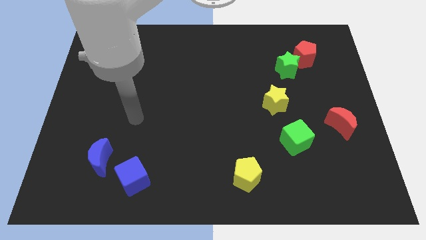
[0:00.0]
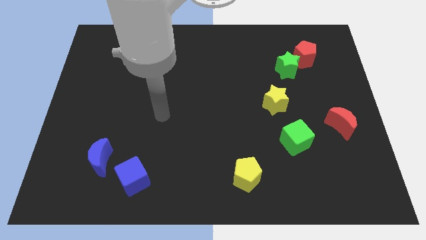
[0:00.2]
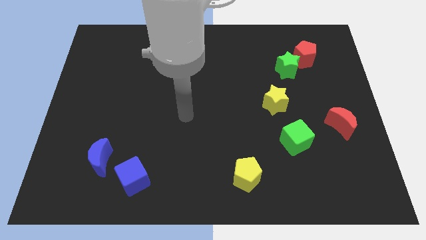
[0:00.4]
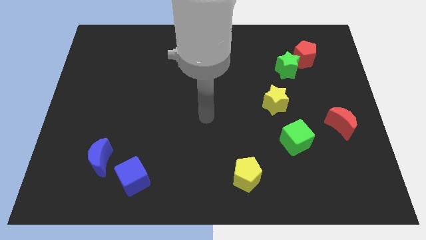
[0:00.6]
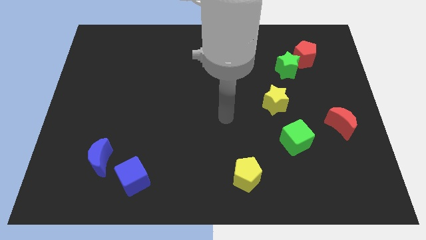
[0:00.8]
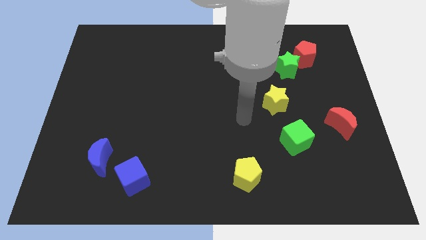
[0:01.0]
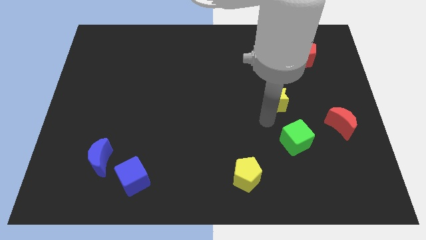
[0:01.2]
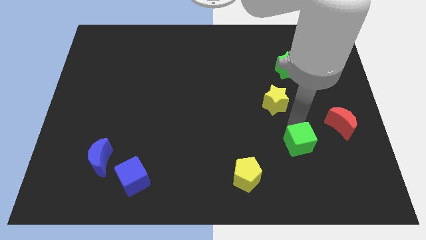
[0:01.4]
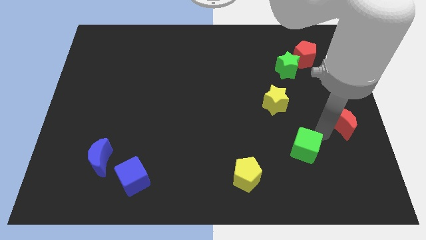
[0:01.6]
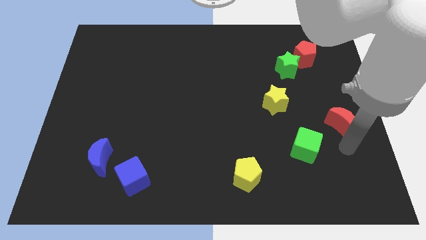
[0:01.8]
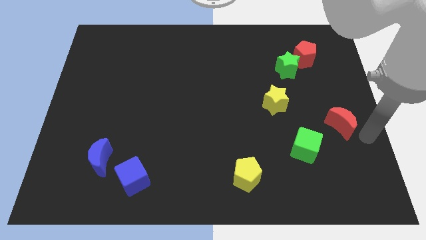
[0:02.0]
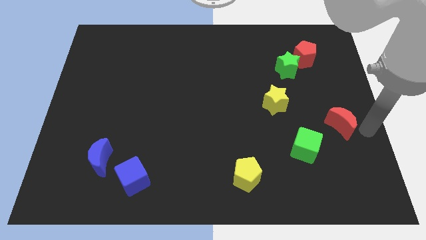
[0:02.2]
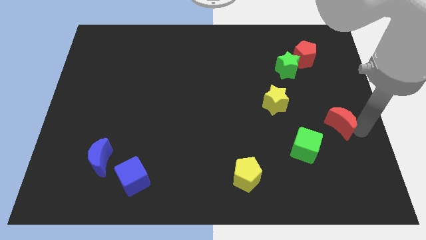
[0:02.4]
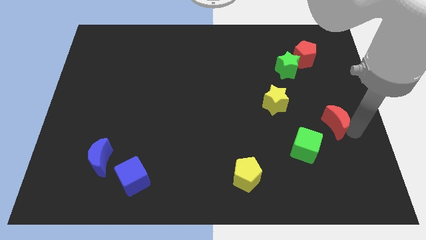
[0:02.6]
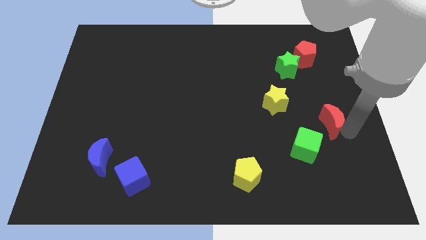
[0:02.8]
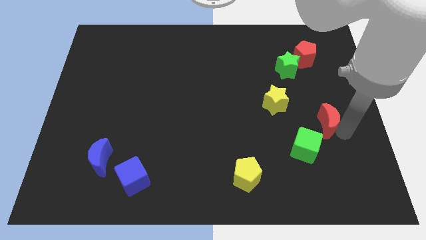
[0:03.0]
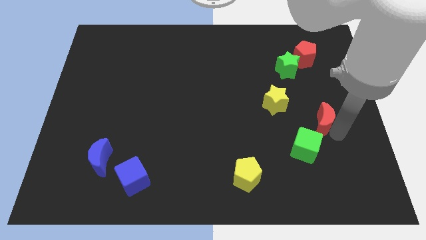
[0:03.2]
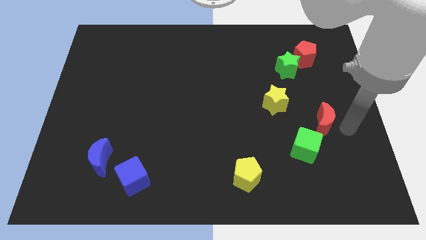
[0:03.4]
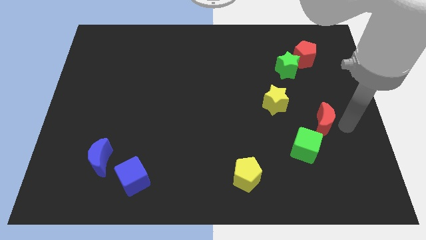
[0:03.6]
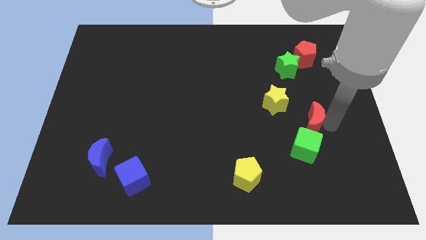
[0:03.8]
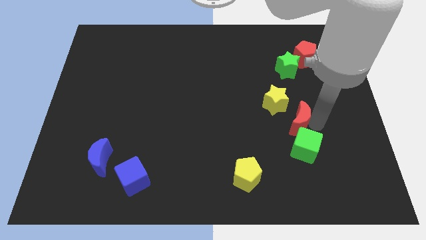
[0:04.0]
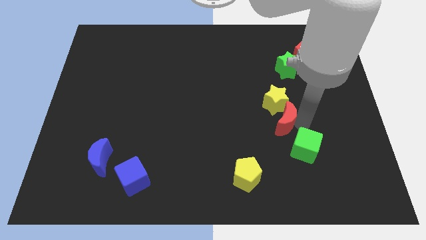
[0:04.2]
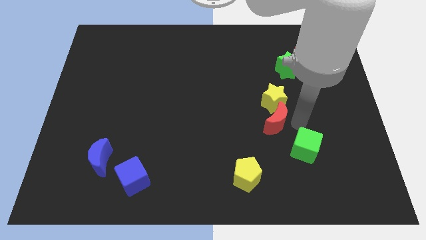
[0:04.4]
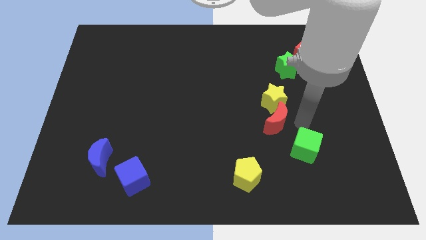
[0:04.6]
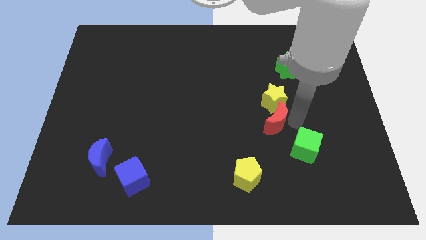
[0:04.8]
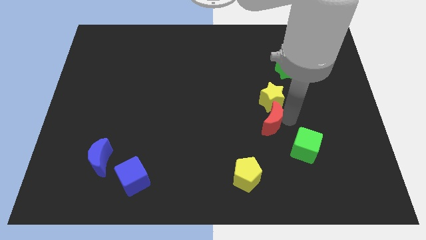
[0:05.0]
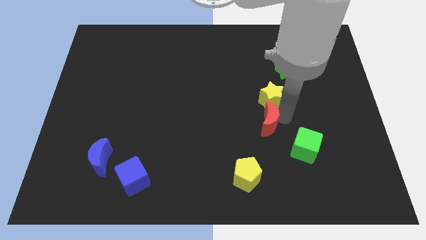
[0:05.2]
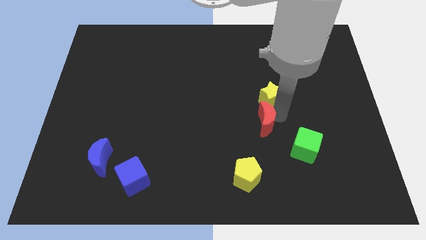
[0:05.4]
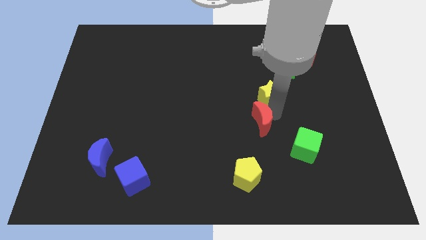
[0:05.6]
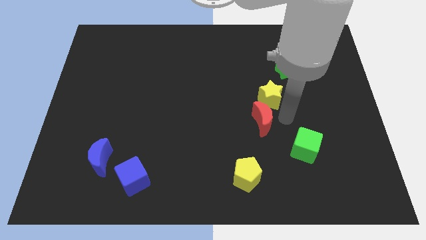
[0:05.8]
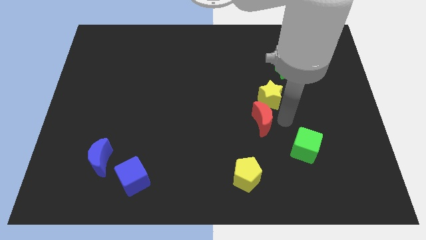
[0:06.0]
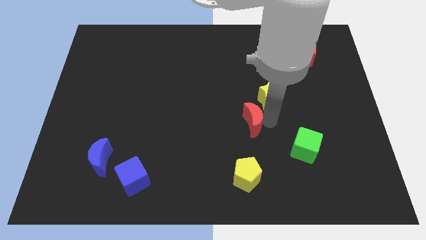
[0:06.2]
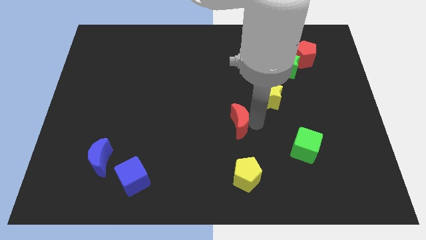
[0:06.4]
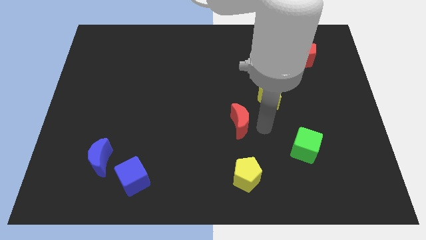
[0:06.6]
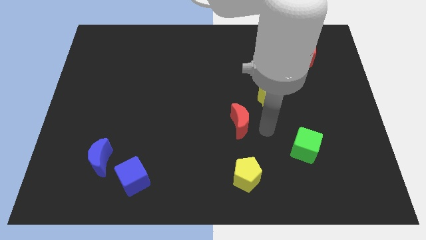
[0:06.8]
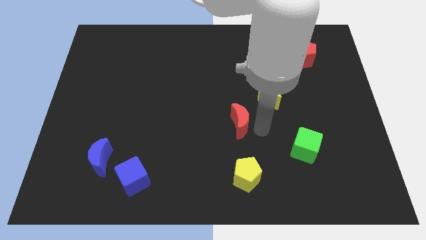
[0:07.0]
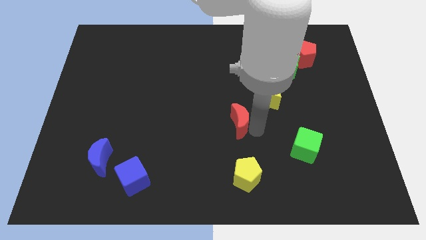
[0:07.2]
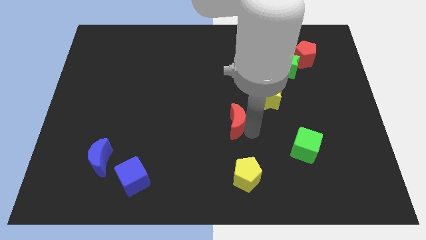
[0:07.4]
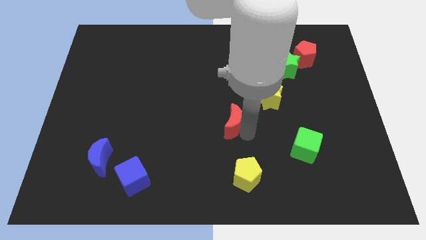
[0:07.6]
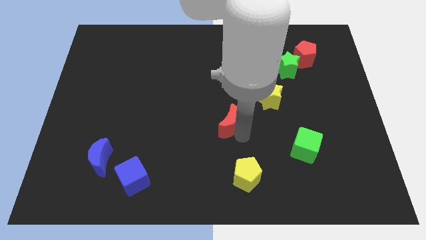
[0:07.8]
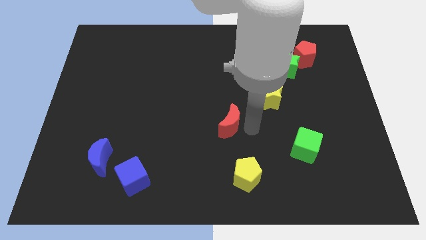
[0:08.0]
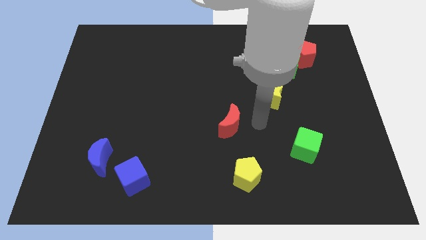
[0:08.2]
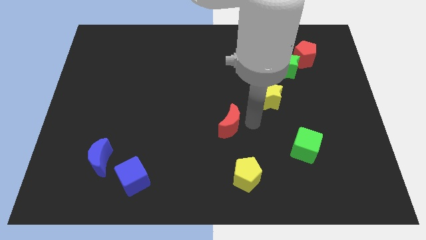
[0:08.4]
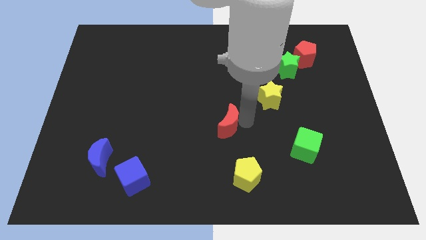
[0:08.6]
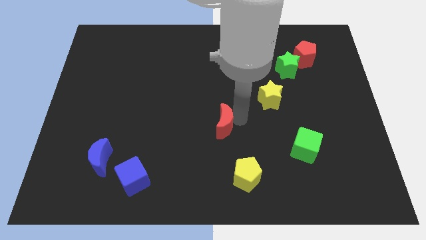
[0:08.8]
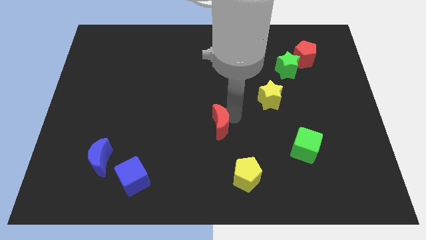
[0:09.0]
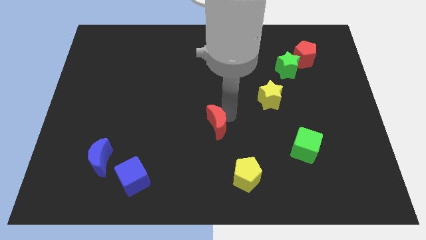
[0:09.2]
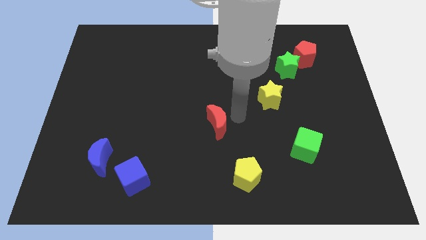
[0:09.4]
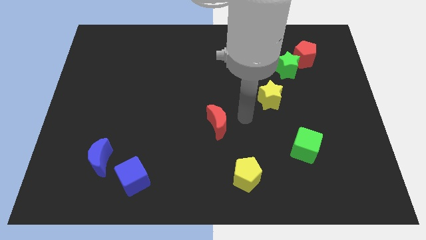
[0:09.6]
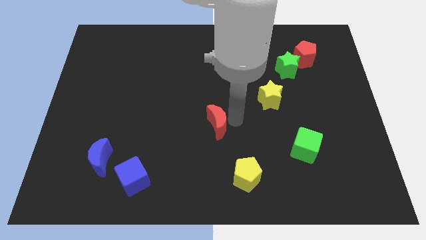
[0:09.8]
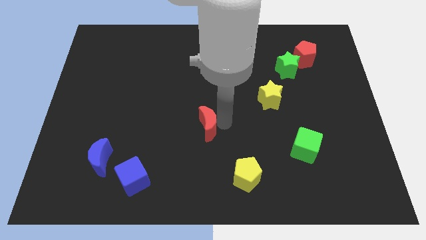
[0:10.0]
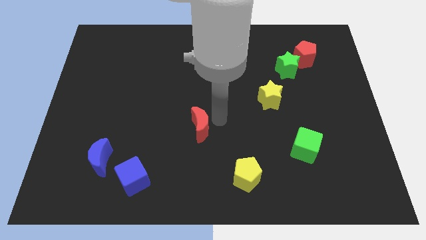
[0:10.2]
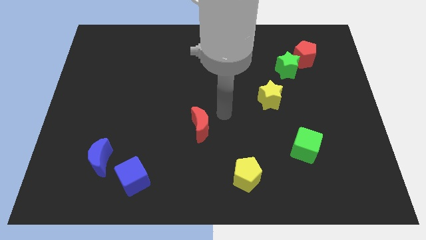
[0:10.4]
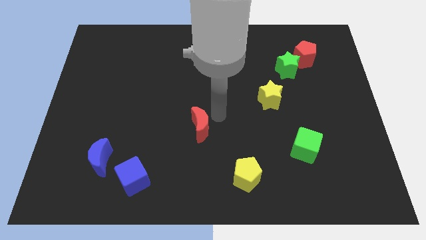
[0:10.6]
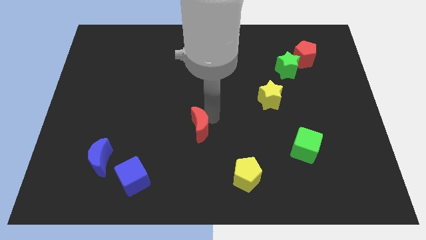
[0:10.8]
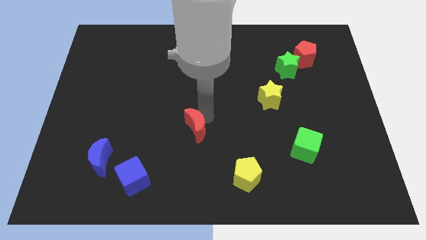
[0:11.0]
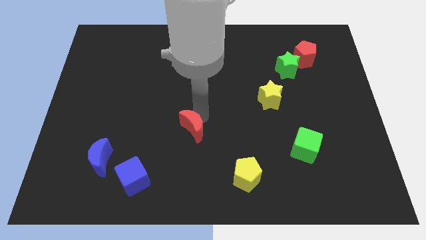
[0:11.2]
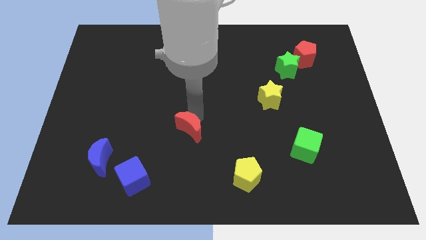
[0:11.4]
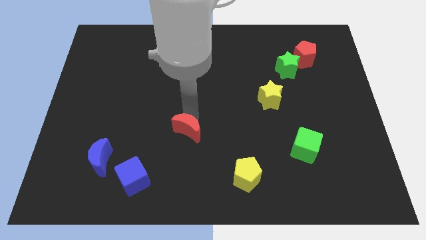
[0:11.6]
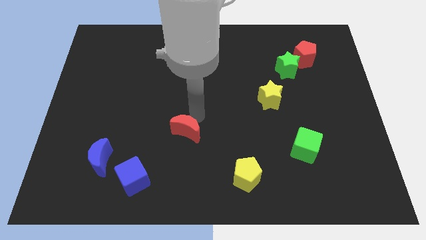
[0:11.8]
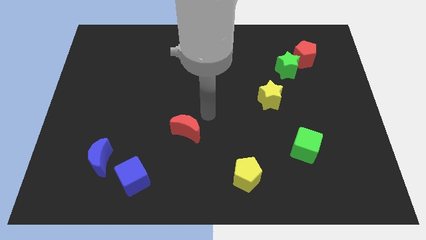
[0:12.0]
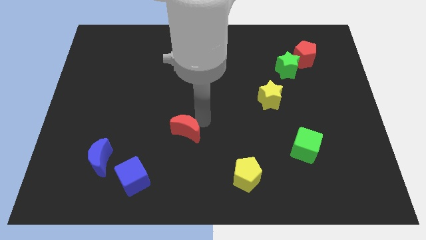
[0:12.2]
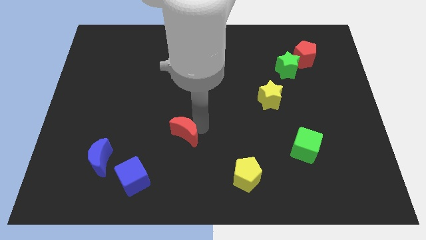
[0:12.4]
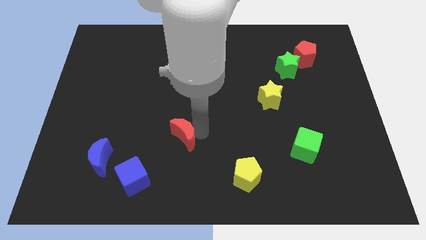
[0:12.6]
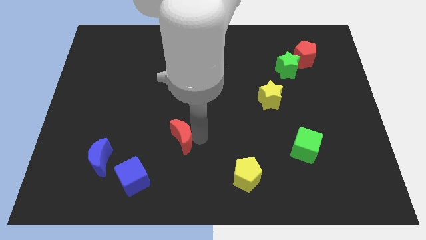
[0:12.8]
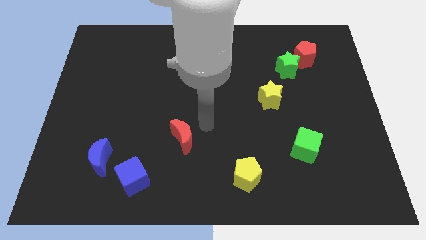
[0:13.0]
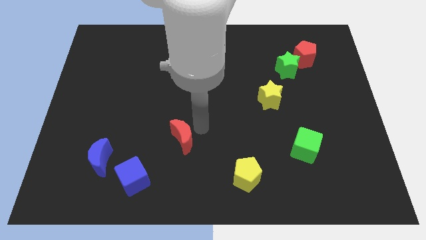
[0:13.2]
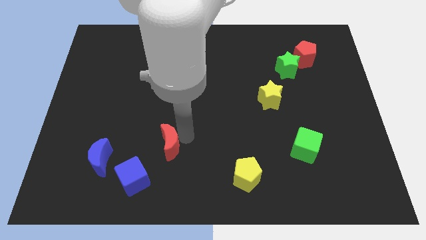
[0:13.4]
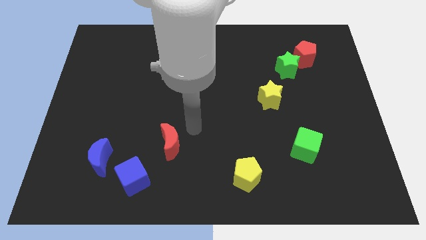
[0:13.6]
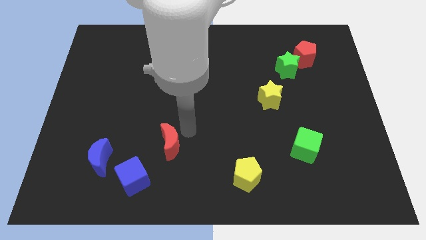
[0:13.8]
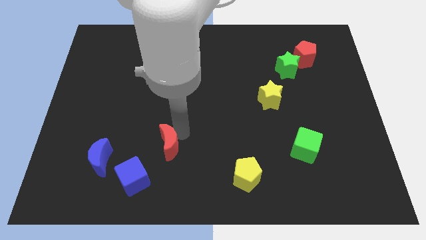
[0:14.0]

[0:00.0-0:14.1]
move the red moon to the right of the blue moon
